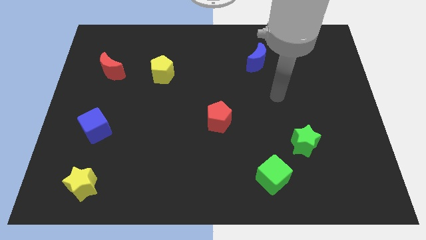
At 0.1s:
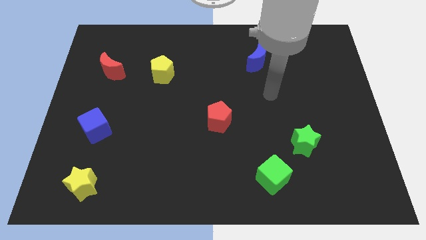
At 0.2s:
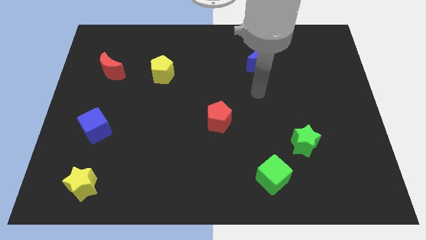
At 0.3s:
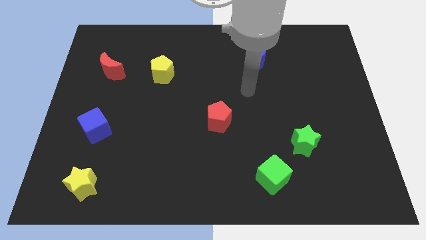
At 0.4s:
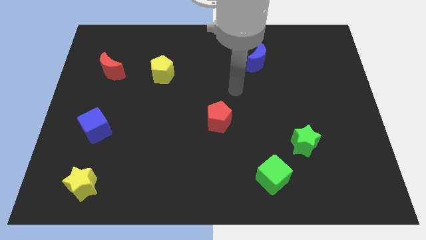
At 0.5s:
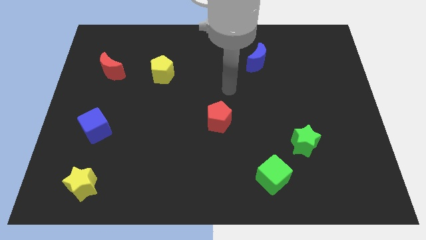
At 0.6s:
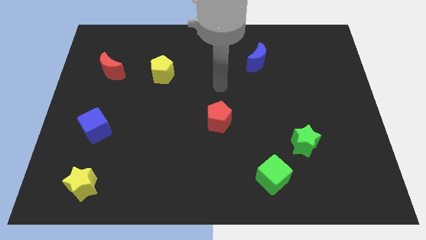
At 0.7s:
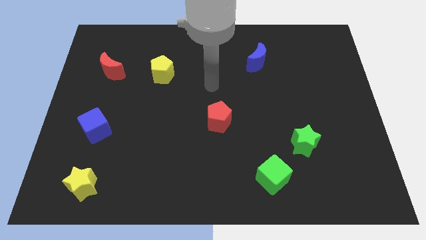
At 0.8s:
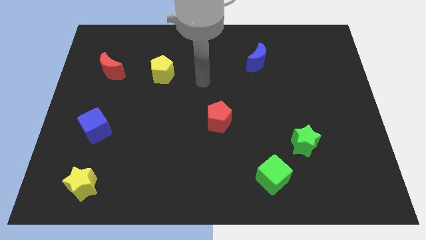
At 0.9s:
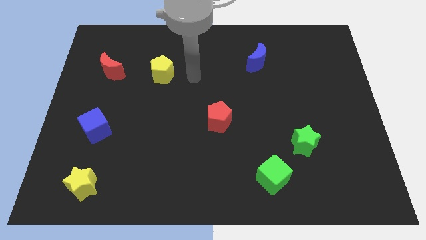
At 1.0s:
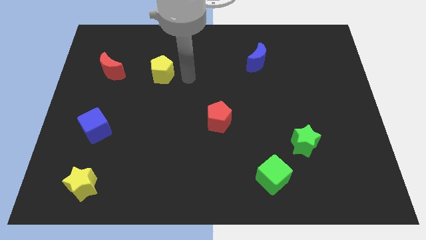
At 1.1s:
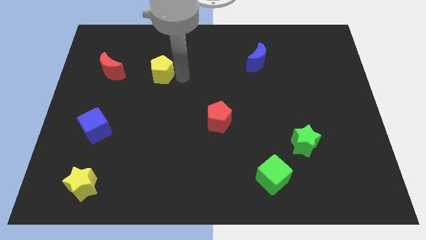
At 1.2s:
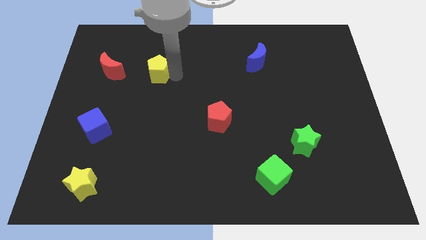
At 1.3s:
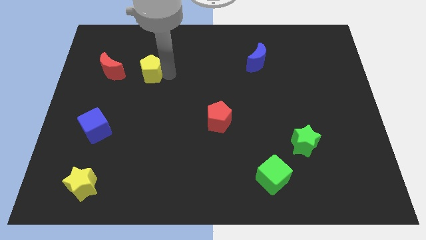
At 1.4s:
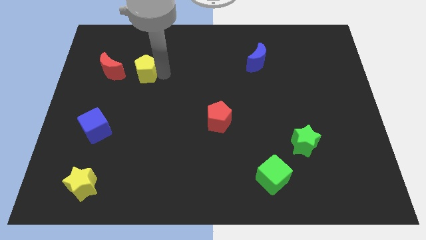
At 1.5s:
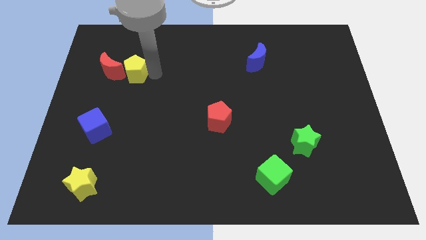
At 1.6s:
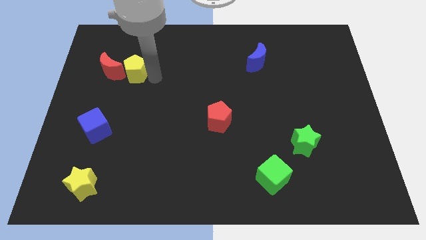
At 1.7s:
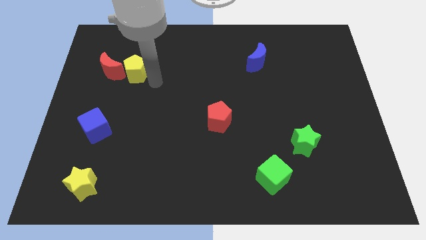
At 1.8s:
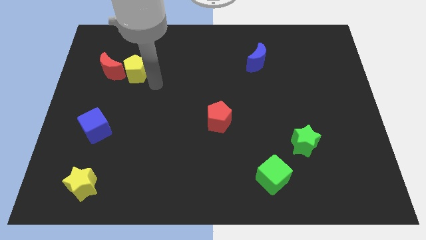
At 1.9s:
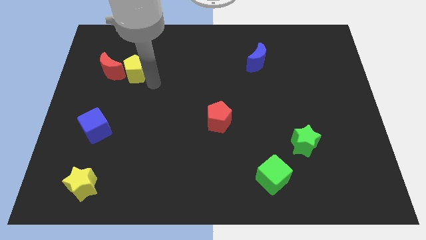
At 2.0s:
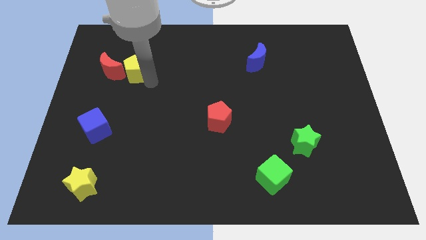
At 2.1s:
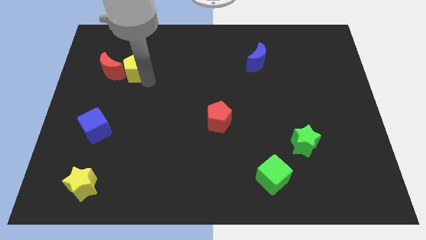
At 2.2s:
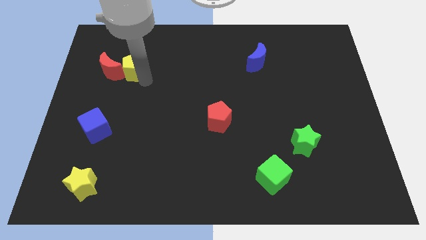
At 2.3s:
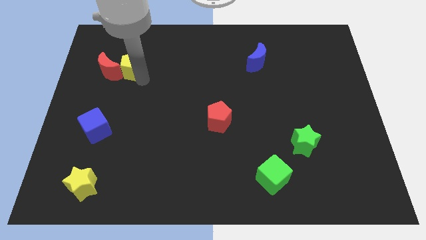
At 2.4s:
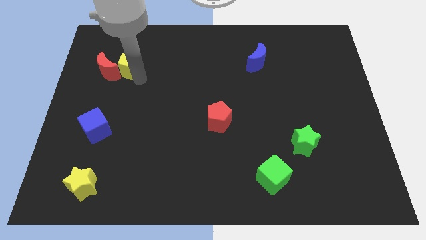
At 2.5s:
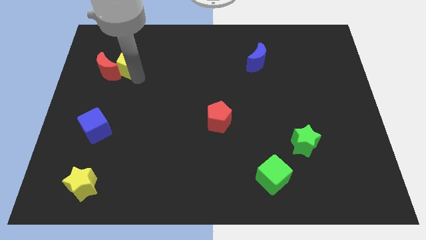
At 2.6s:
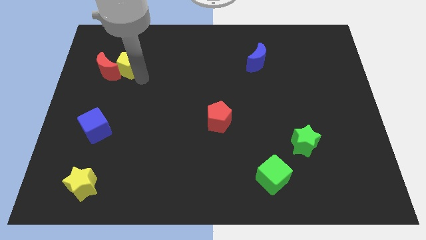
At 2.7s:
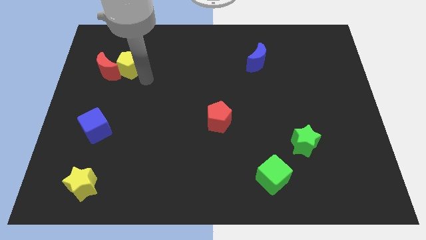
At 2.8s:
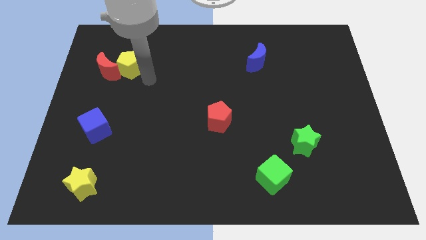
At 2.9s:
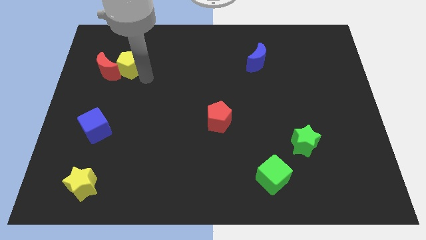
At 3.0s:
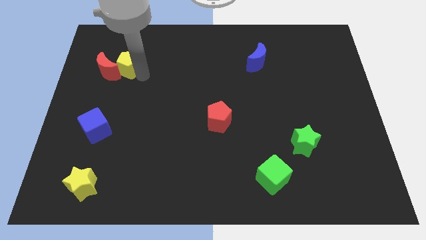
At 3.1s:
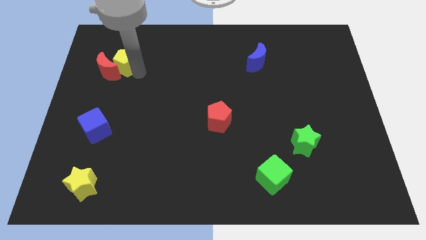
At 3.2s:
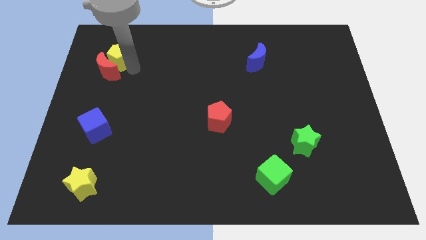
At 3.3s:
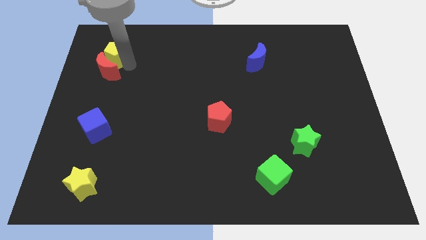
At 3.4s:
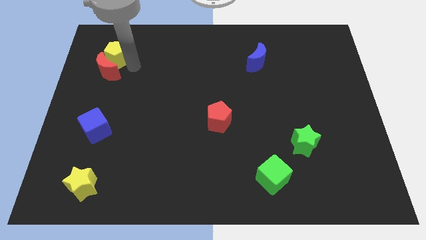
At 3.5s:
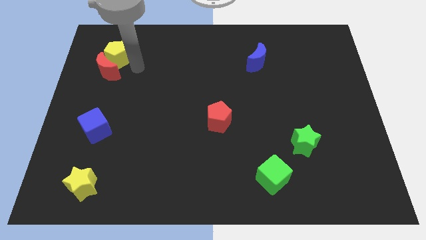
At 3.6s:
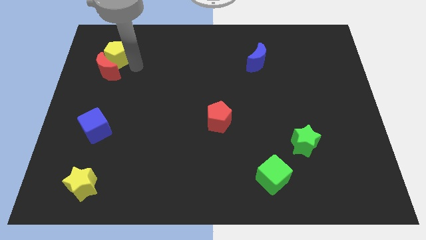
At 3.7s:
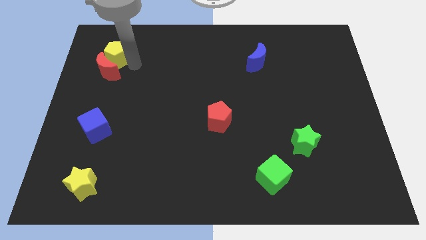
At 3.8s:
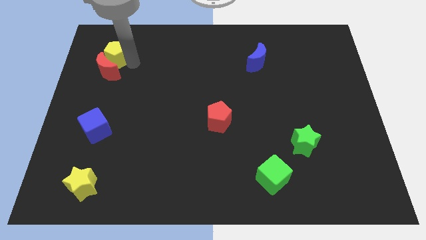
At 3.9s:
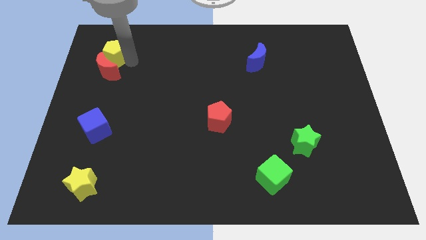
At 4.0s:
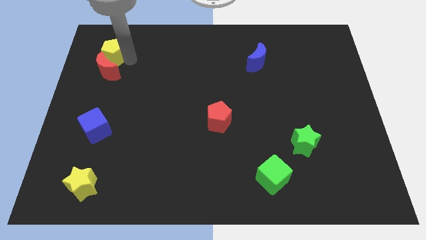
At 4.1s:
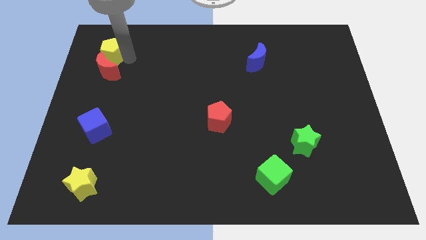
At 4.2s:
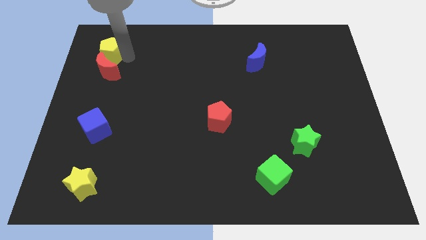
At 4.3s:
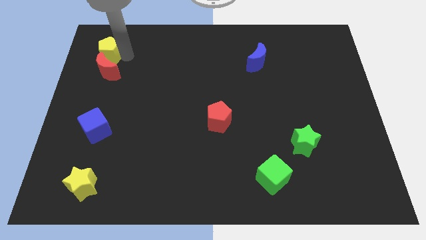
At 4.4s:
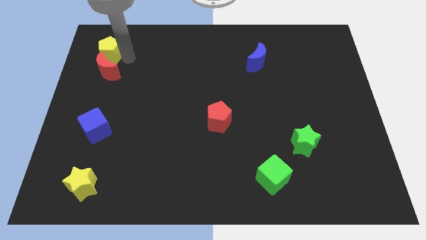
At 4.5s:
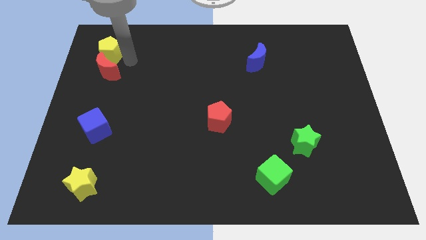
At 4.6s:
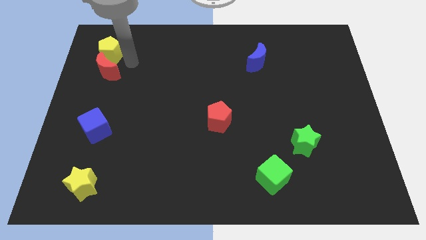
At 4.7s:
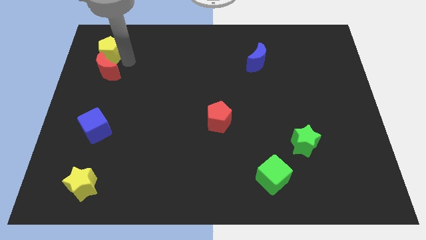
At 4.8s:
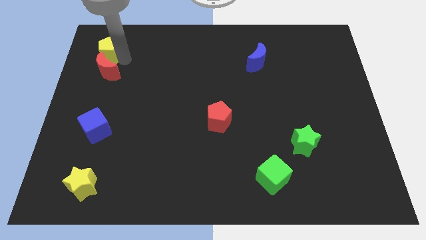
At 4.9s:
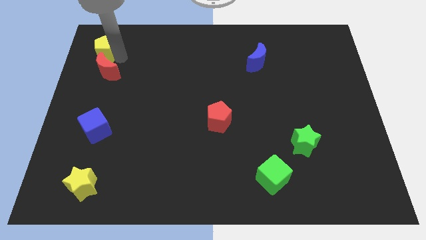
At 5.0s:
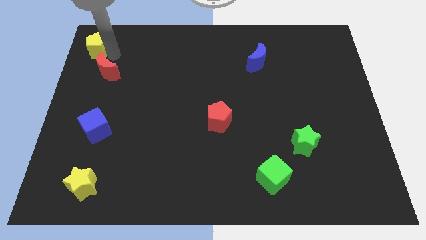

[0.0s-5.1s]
put the yellow pentagon to the top left of the board

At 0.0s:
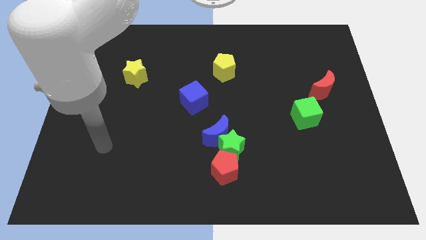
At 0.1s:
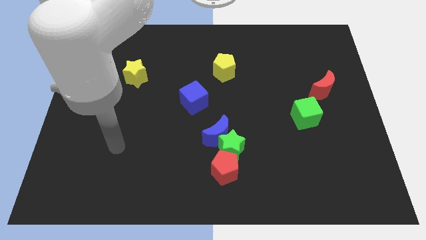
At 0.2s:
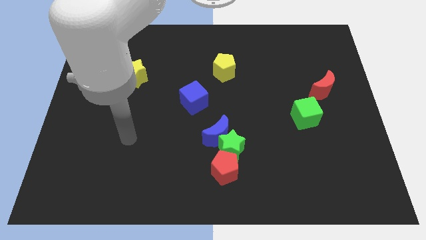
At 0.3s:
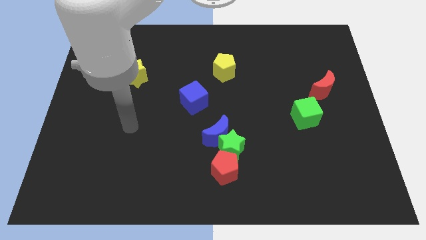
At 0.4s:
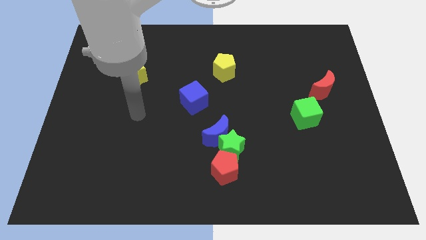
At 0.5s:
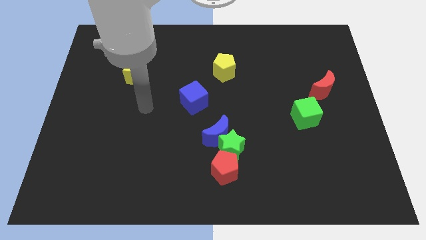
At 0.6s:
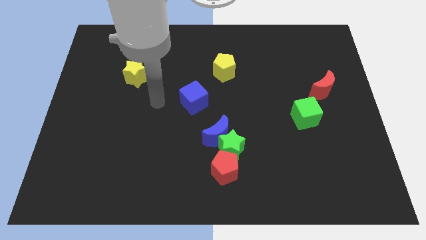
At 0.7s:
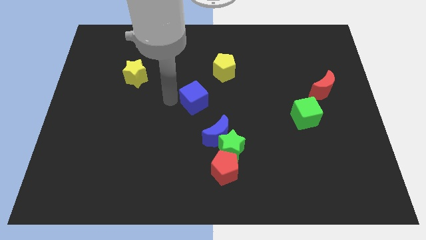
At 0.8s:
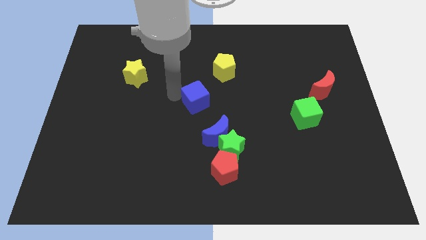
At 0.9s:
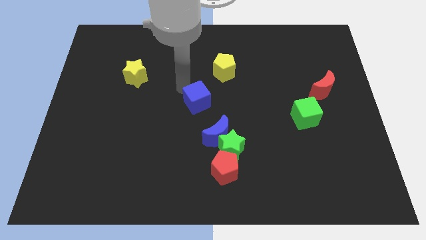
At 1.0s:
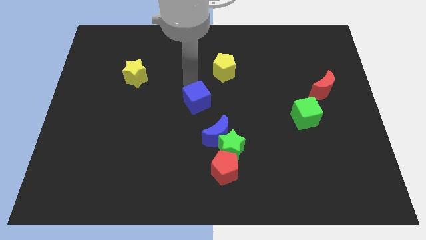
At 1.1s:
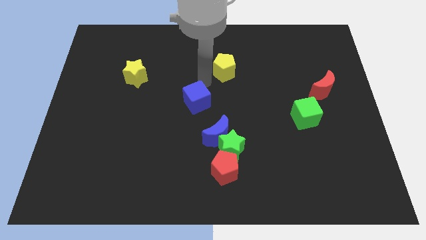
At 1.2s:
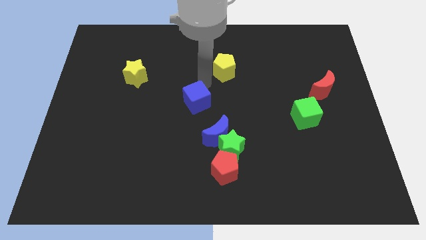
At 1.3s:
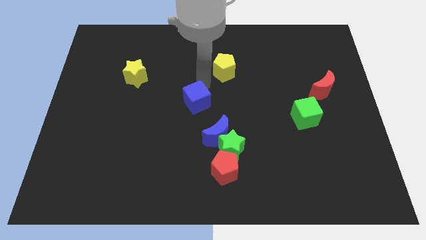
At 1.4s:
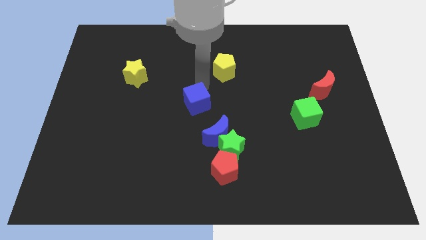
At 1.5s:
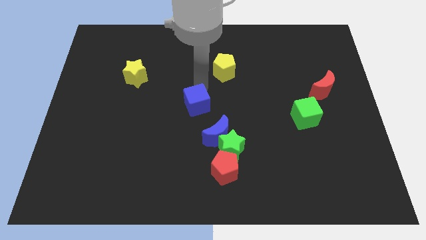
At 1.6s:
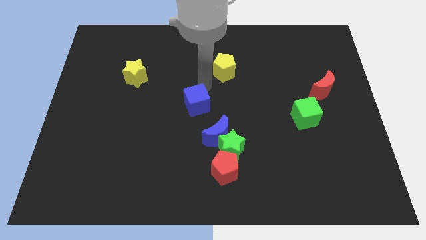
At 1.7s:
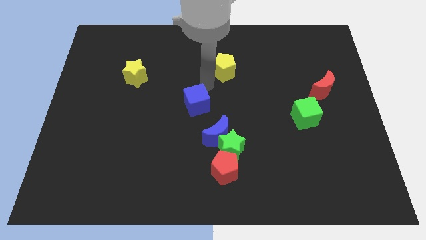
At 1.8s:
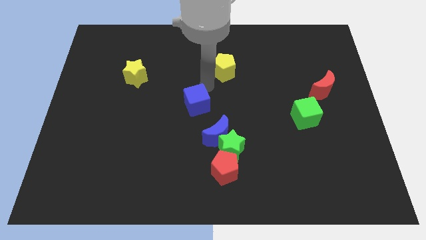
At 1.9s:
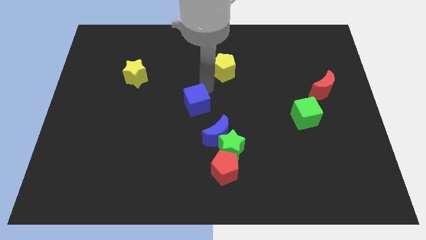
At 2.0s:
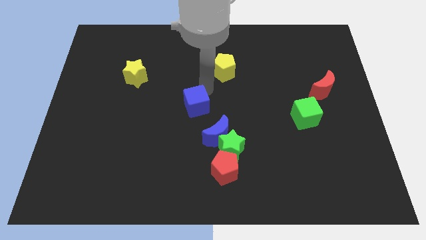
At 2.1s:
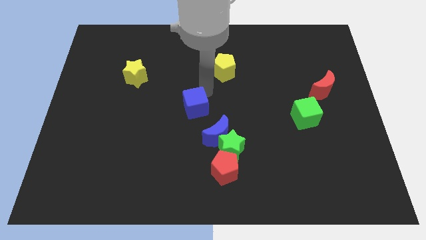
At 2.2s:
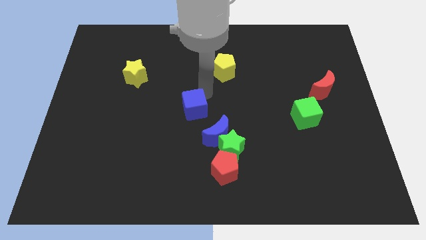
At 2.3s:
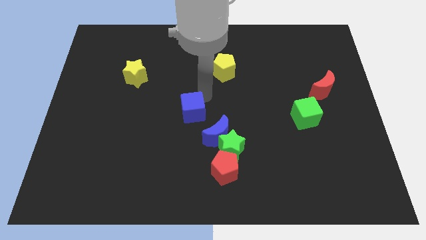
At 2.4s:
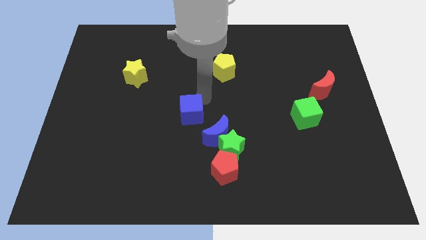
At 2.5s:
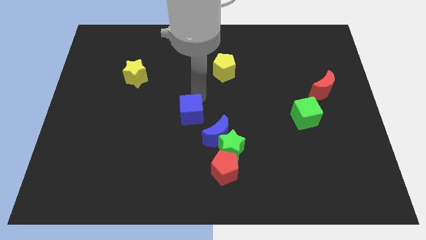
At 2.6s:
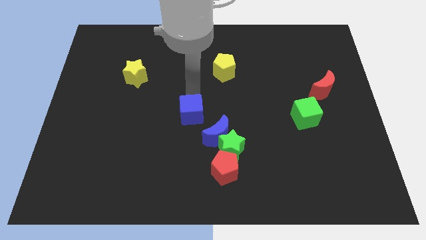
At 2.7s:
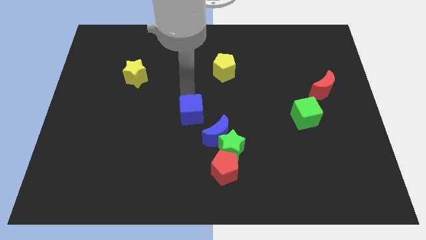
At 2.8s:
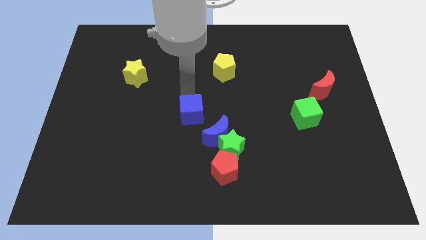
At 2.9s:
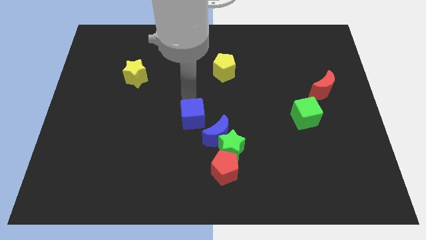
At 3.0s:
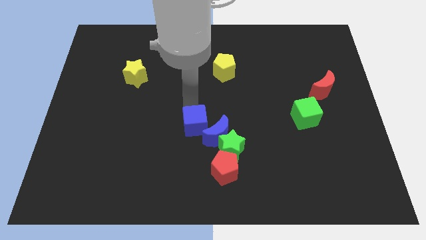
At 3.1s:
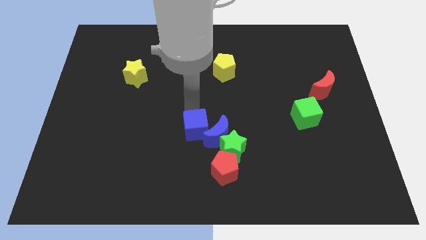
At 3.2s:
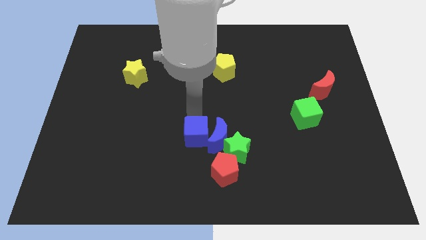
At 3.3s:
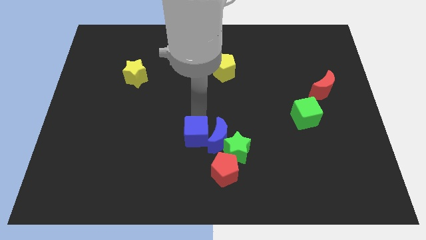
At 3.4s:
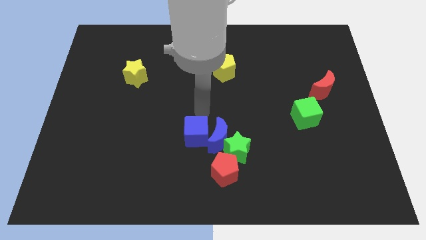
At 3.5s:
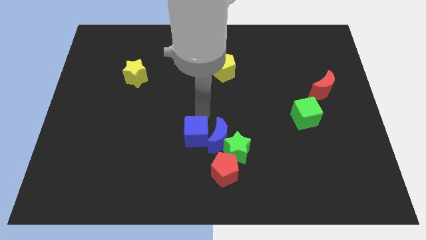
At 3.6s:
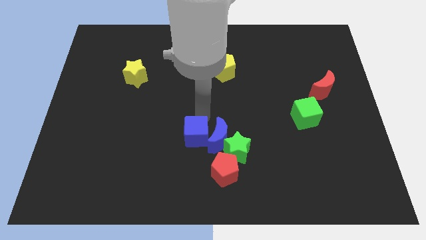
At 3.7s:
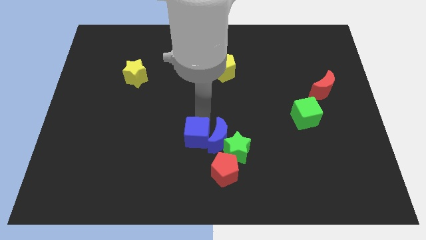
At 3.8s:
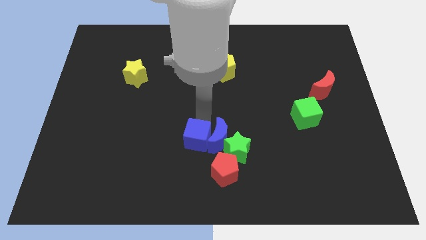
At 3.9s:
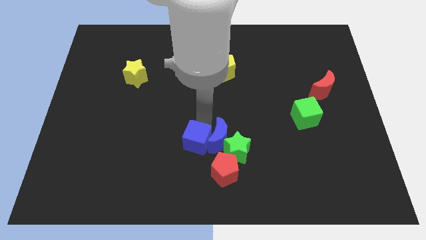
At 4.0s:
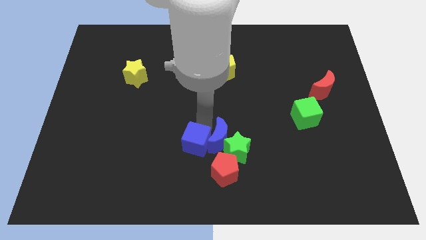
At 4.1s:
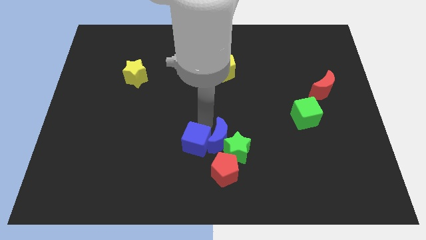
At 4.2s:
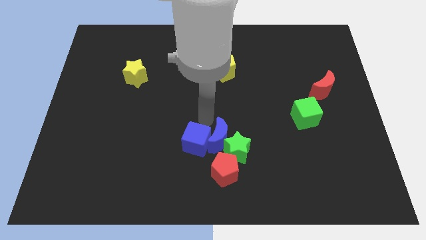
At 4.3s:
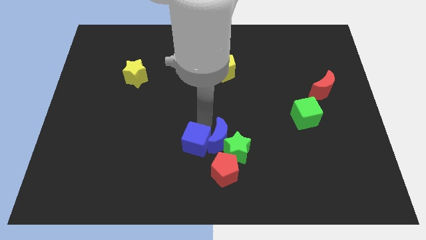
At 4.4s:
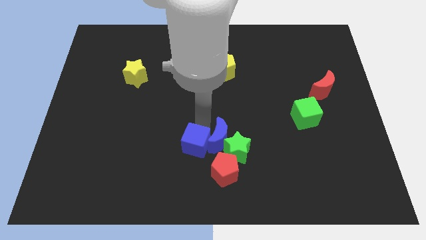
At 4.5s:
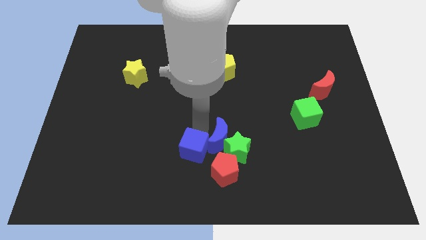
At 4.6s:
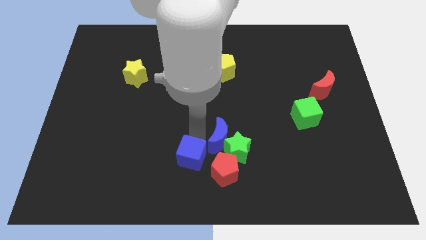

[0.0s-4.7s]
put the blue cube to the bottom
